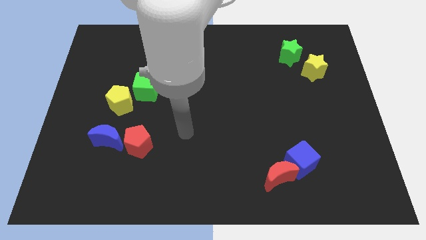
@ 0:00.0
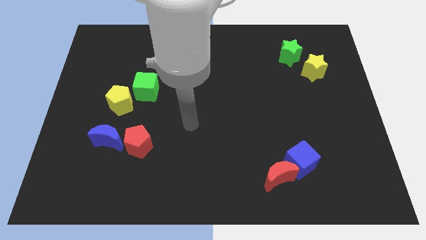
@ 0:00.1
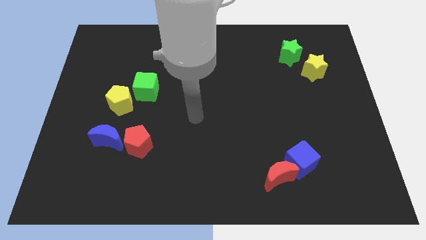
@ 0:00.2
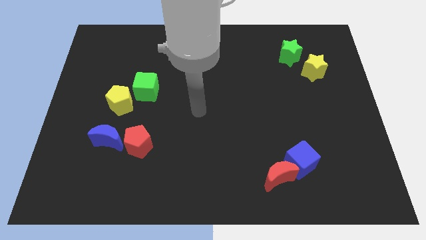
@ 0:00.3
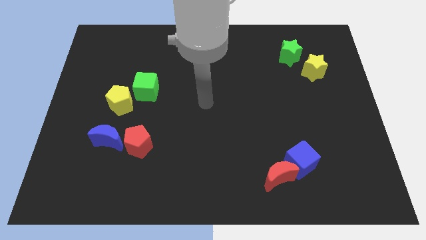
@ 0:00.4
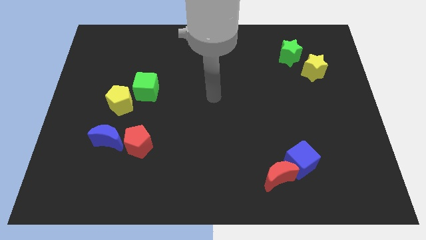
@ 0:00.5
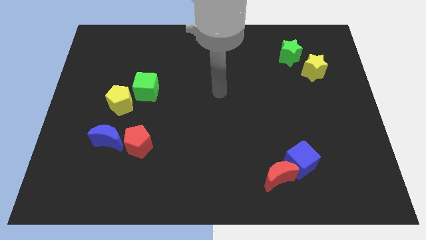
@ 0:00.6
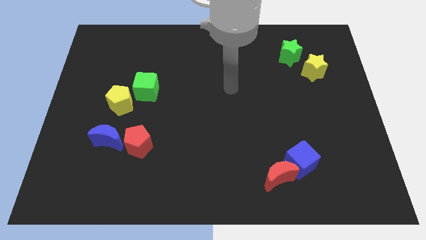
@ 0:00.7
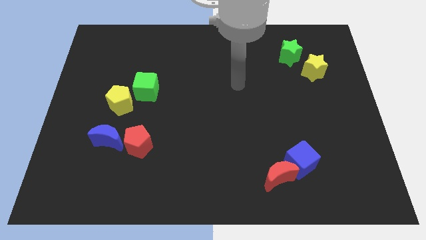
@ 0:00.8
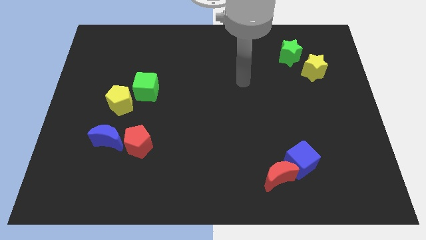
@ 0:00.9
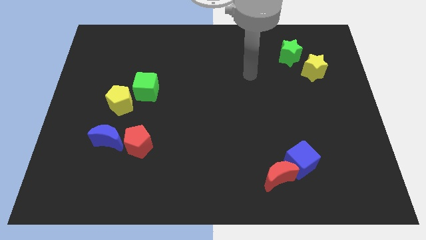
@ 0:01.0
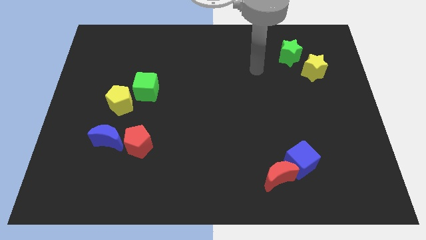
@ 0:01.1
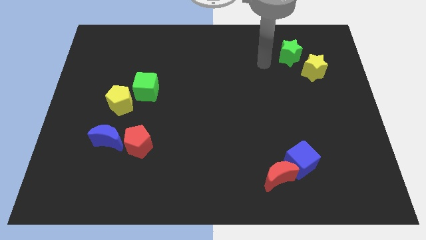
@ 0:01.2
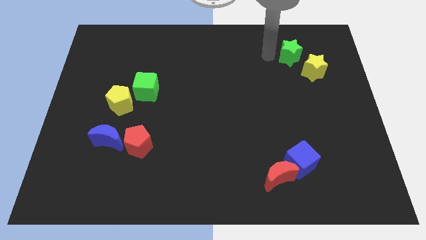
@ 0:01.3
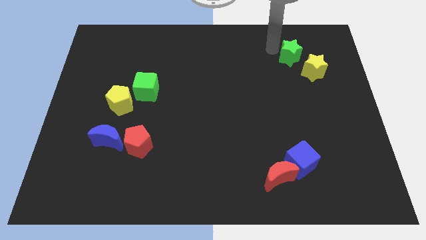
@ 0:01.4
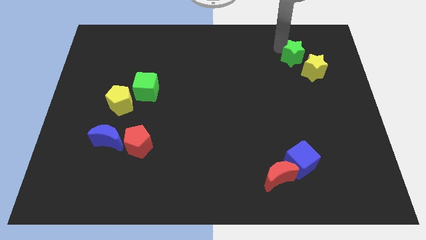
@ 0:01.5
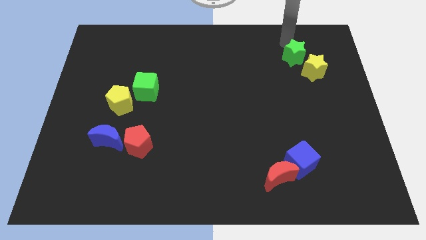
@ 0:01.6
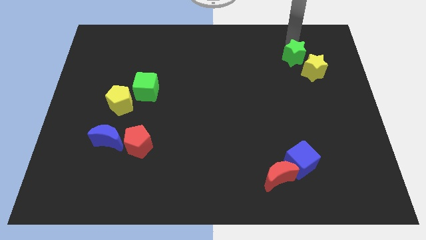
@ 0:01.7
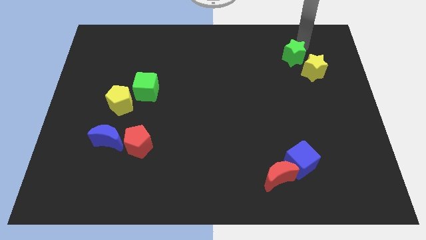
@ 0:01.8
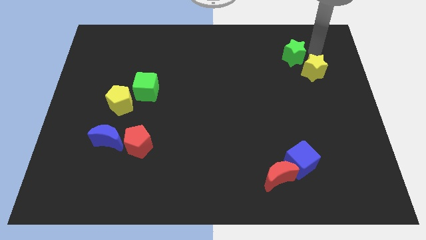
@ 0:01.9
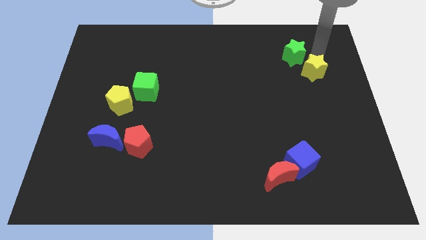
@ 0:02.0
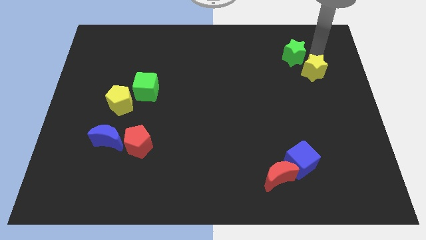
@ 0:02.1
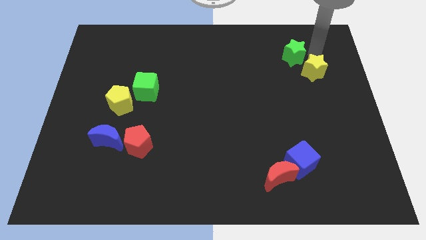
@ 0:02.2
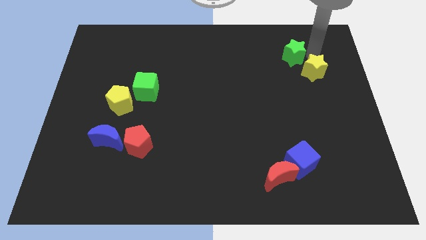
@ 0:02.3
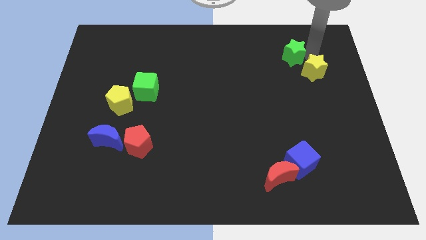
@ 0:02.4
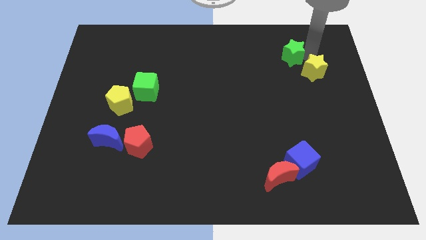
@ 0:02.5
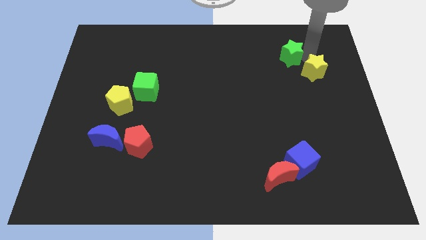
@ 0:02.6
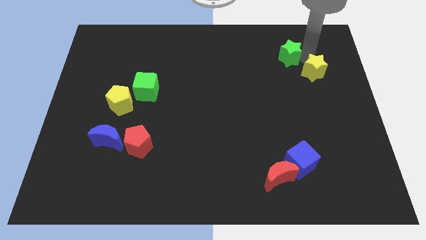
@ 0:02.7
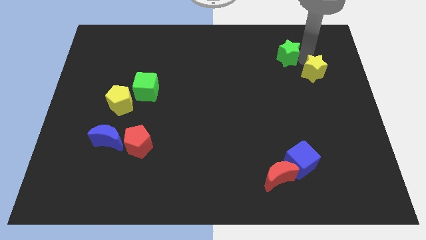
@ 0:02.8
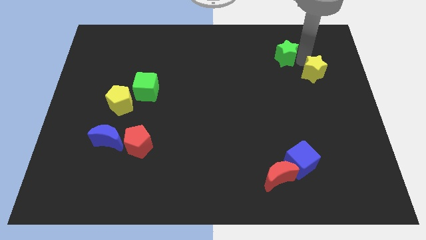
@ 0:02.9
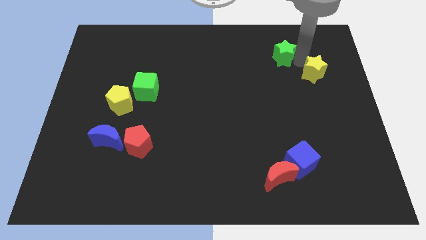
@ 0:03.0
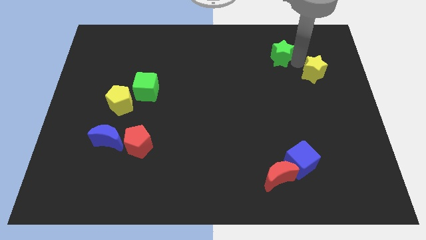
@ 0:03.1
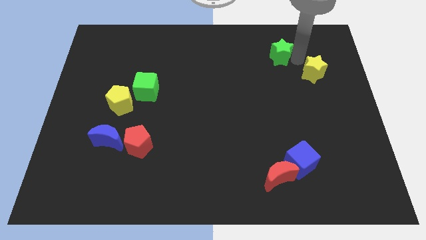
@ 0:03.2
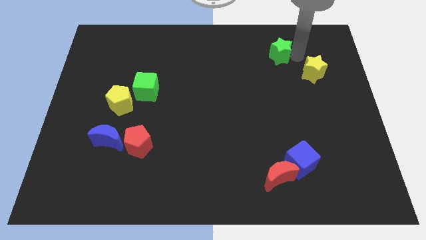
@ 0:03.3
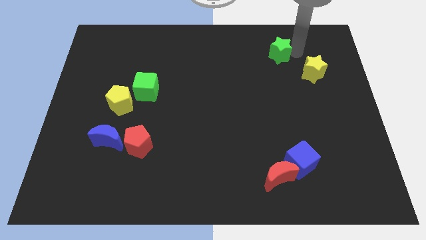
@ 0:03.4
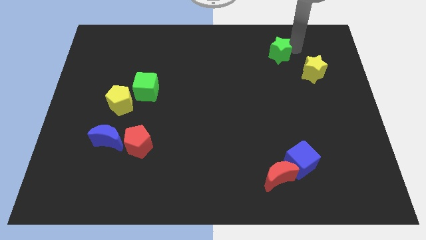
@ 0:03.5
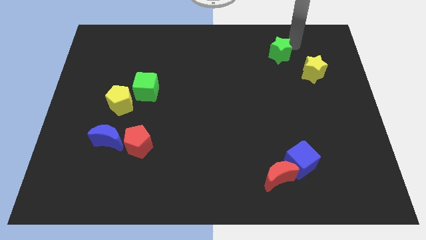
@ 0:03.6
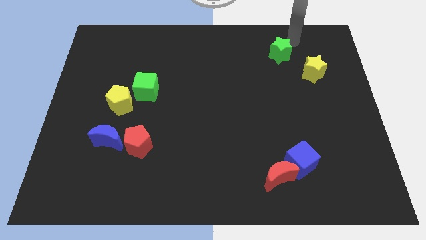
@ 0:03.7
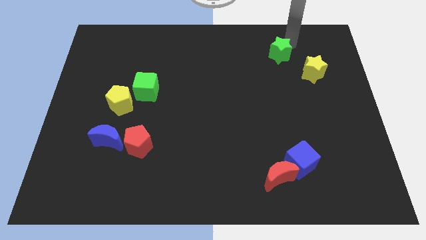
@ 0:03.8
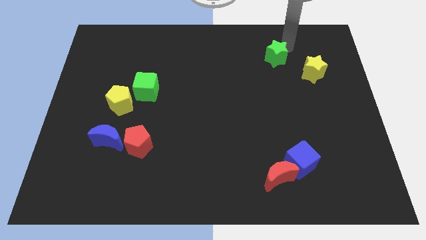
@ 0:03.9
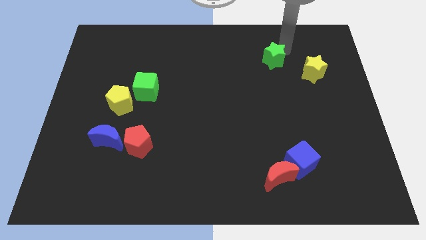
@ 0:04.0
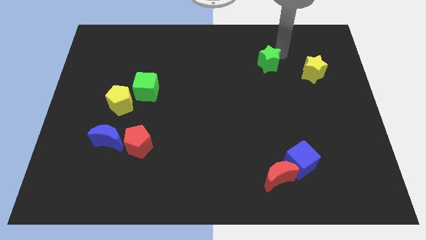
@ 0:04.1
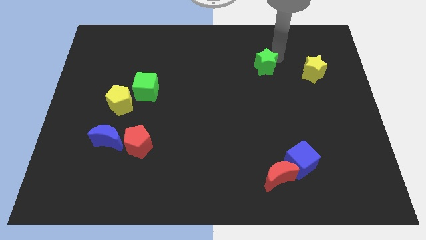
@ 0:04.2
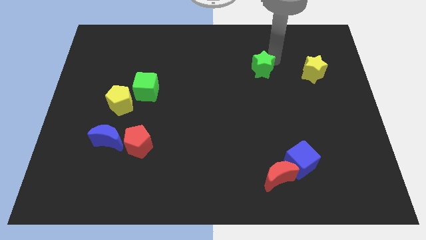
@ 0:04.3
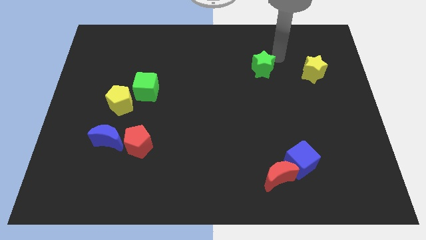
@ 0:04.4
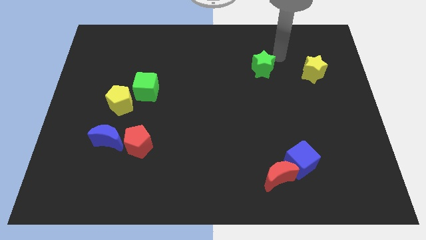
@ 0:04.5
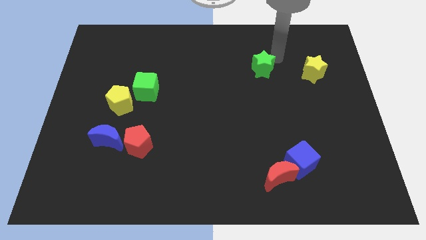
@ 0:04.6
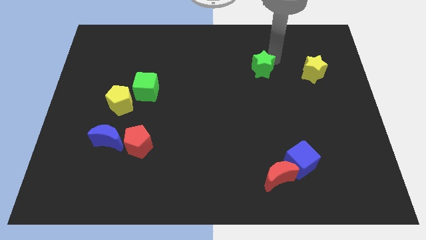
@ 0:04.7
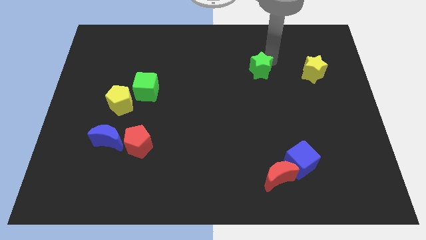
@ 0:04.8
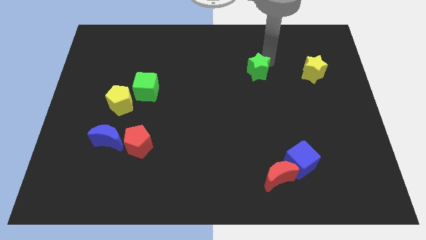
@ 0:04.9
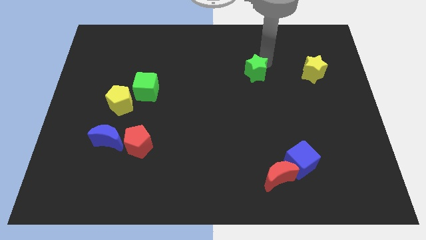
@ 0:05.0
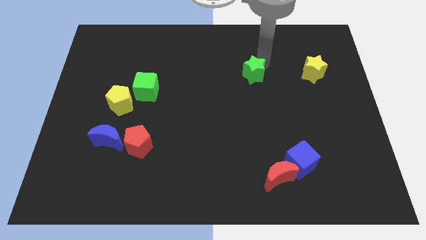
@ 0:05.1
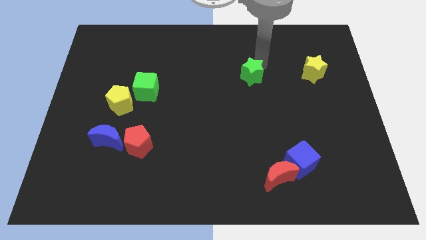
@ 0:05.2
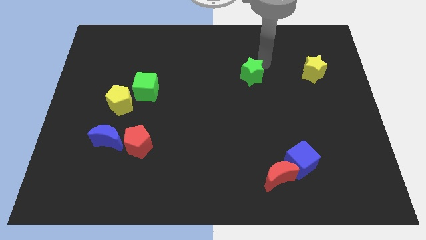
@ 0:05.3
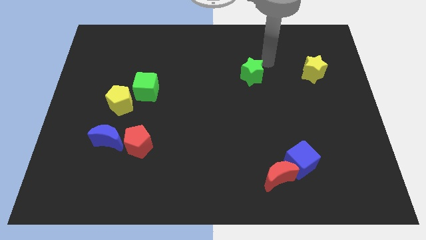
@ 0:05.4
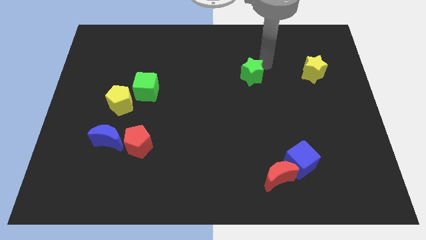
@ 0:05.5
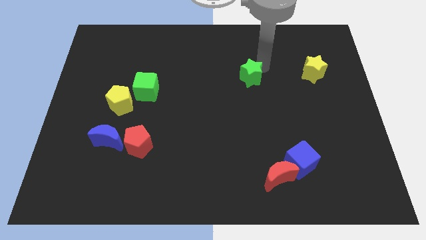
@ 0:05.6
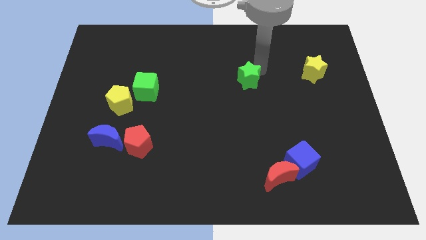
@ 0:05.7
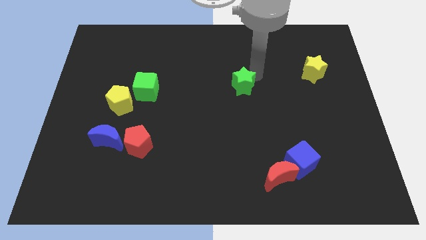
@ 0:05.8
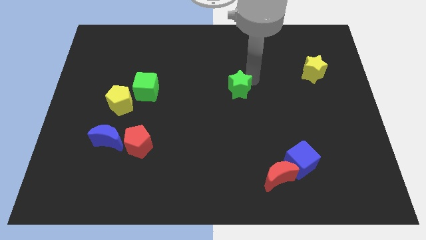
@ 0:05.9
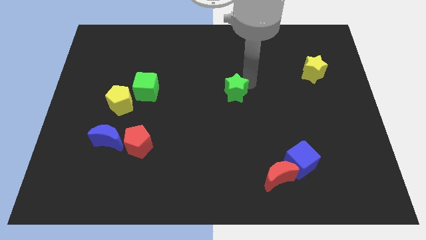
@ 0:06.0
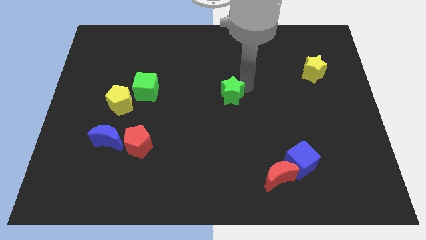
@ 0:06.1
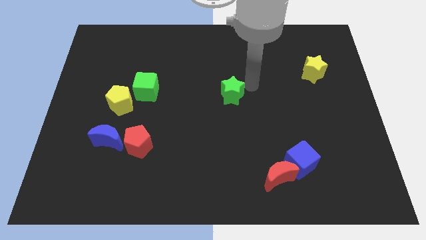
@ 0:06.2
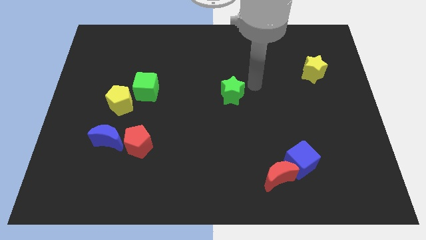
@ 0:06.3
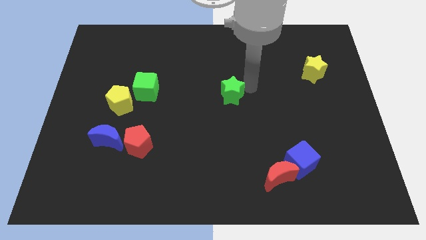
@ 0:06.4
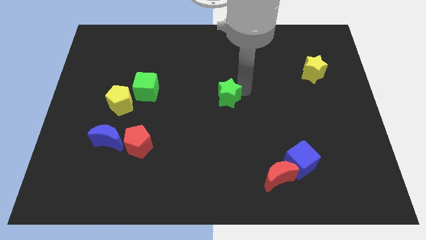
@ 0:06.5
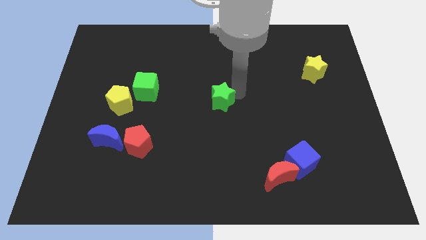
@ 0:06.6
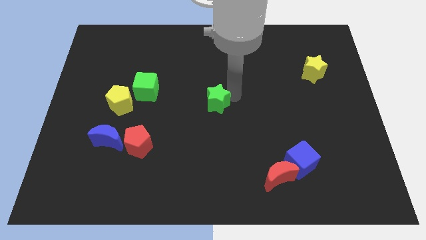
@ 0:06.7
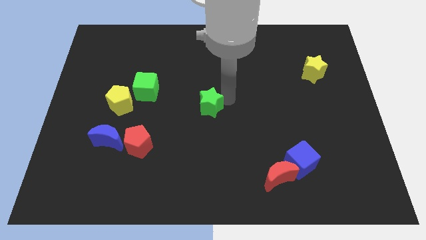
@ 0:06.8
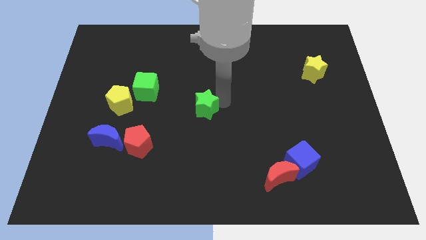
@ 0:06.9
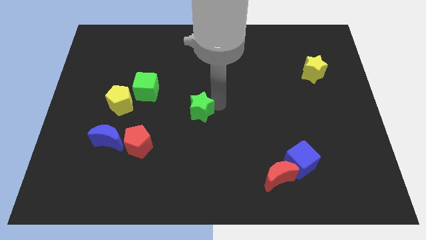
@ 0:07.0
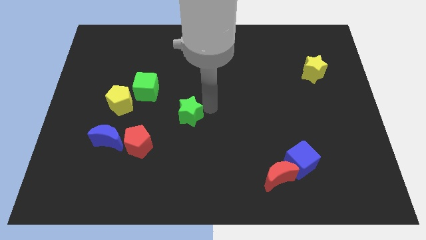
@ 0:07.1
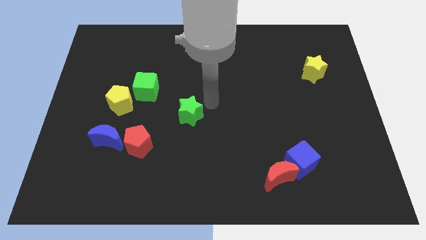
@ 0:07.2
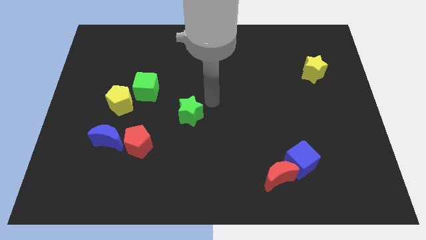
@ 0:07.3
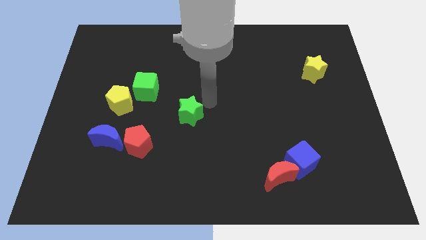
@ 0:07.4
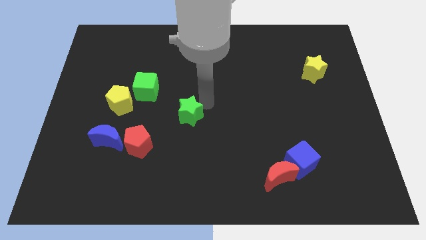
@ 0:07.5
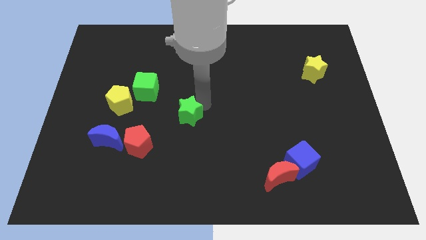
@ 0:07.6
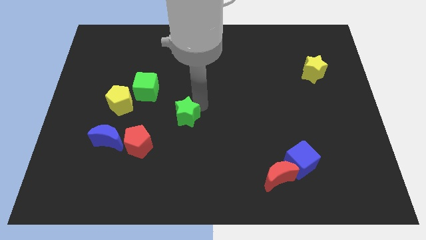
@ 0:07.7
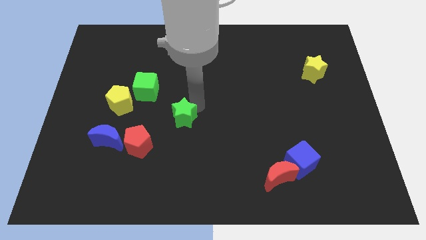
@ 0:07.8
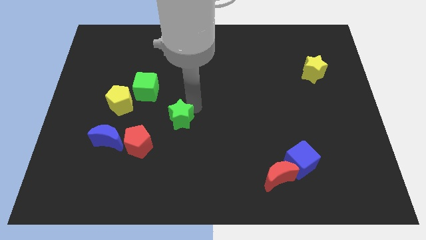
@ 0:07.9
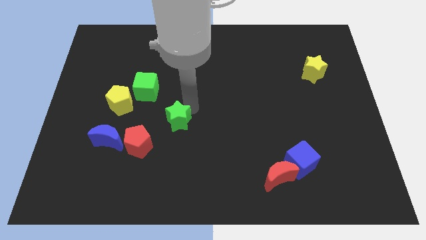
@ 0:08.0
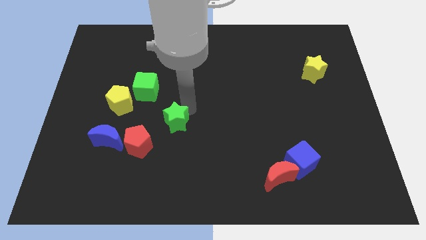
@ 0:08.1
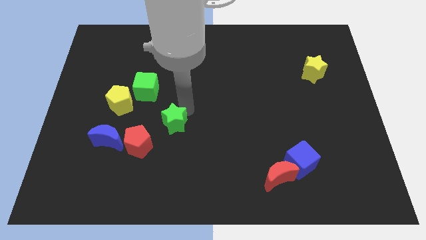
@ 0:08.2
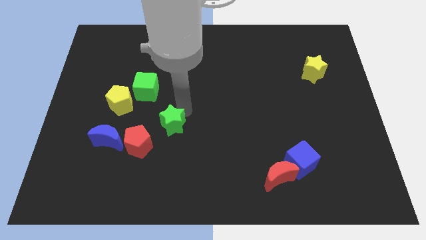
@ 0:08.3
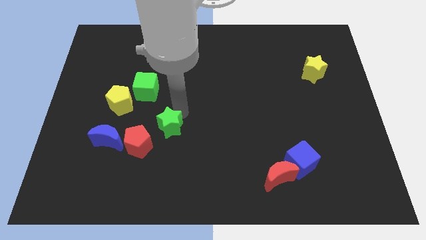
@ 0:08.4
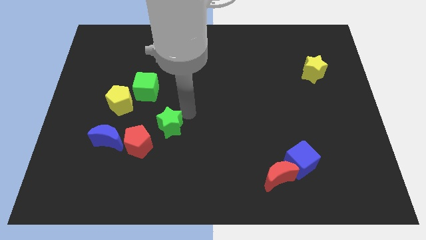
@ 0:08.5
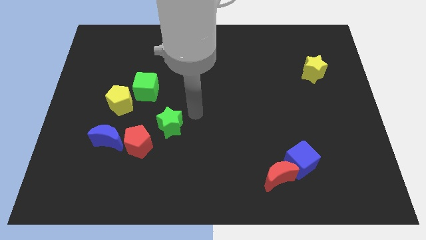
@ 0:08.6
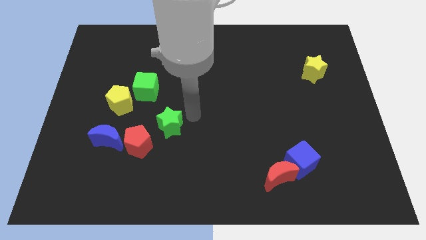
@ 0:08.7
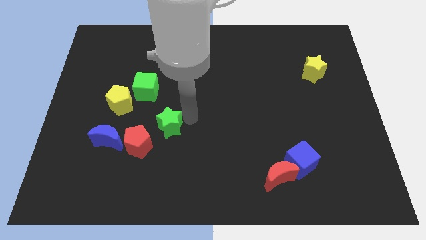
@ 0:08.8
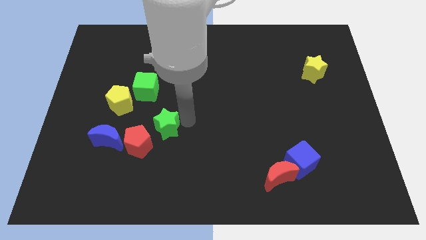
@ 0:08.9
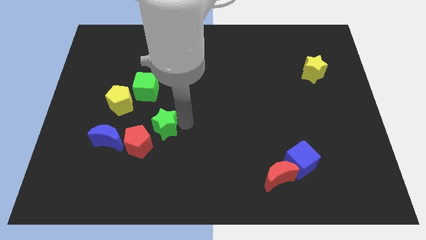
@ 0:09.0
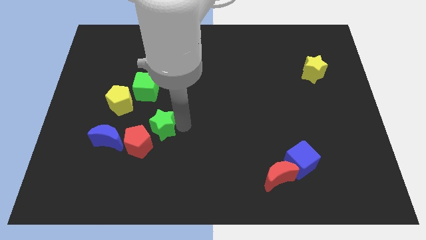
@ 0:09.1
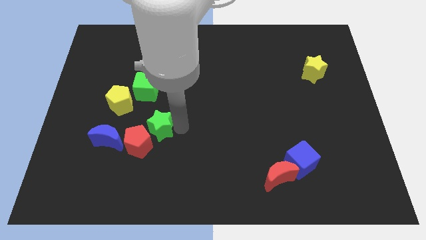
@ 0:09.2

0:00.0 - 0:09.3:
move the green star close to the red pentagon
